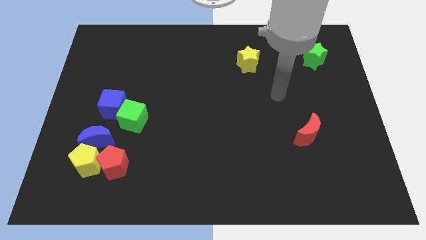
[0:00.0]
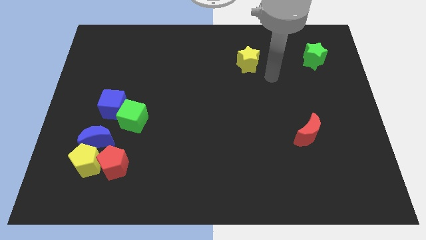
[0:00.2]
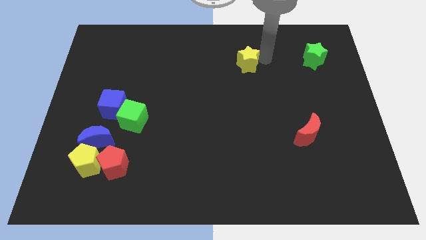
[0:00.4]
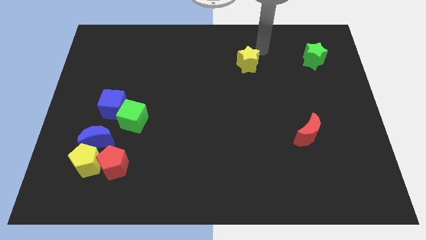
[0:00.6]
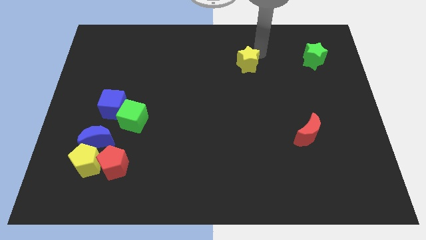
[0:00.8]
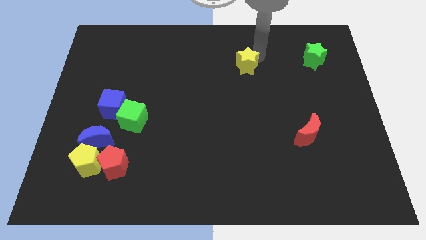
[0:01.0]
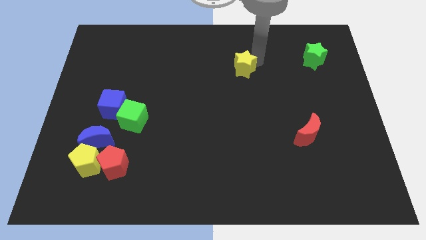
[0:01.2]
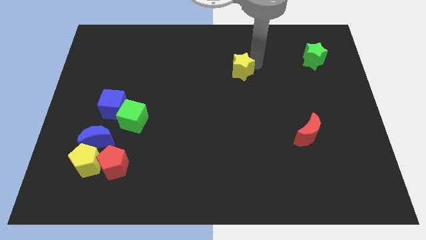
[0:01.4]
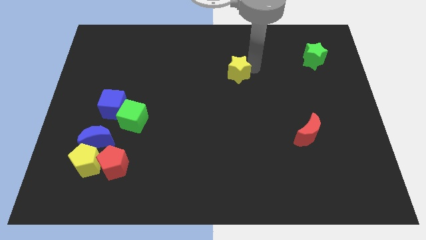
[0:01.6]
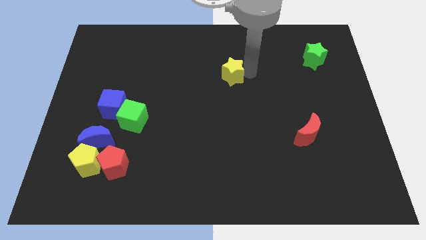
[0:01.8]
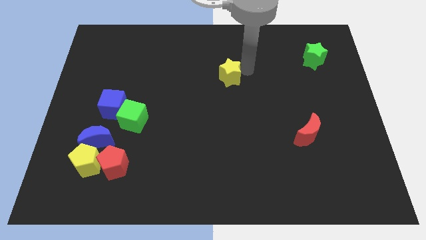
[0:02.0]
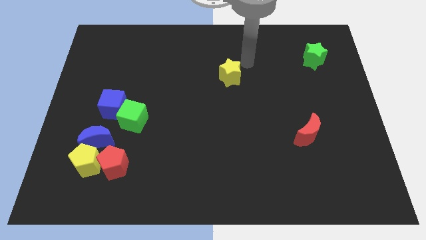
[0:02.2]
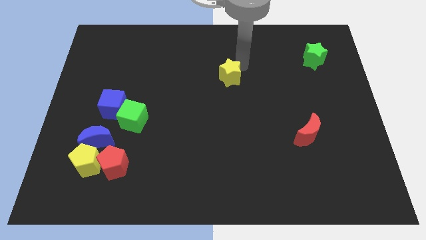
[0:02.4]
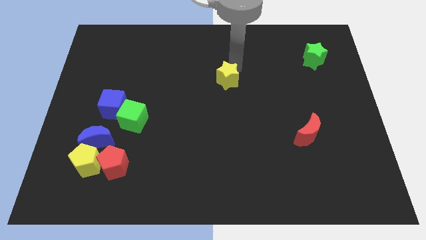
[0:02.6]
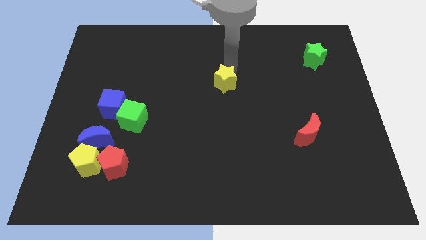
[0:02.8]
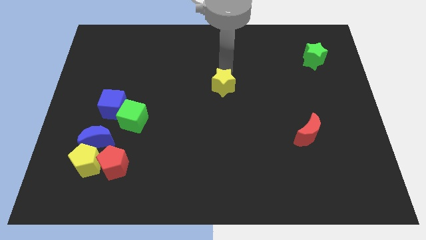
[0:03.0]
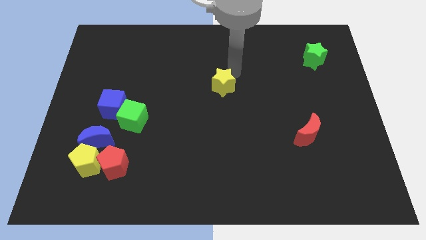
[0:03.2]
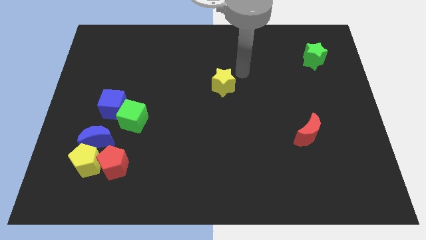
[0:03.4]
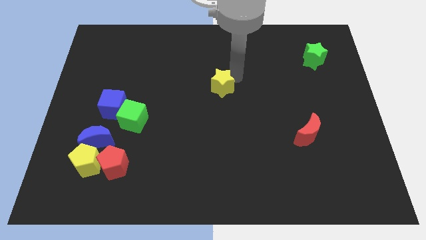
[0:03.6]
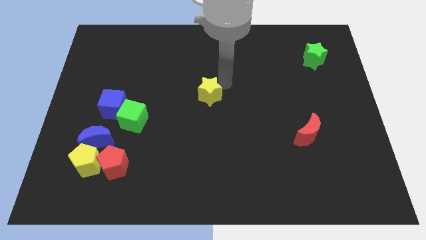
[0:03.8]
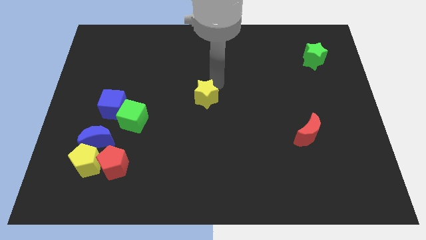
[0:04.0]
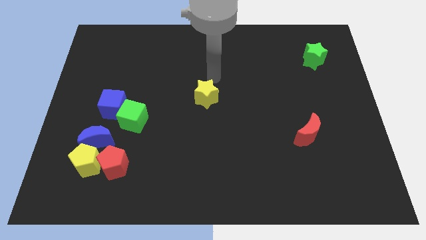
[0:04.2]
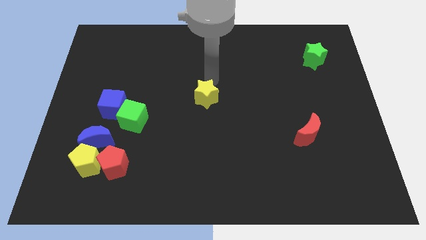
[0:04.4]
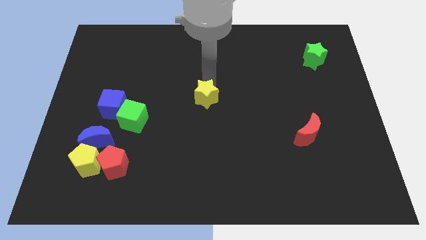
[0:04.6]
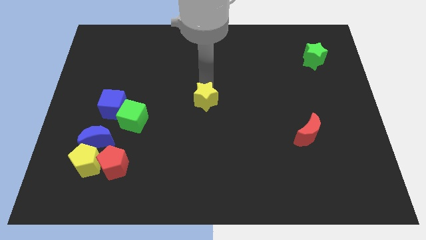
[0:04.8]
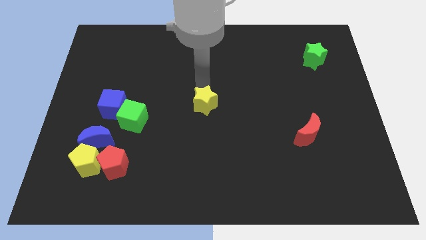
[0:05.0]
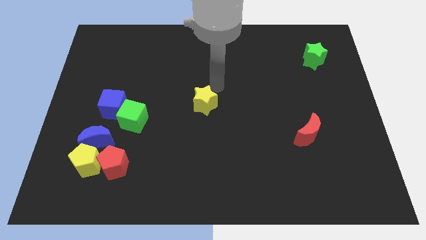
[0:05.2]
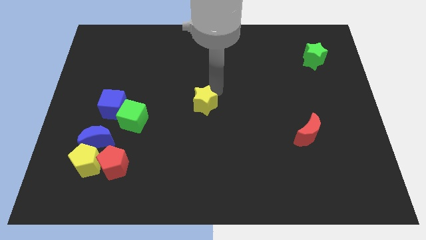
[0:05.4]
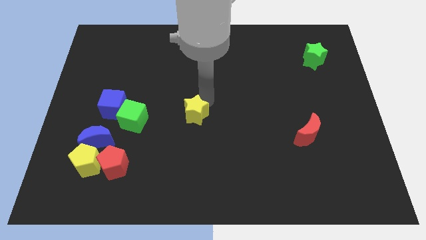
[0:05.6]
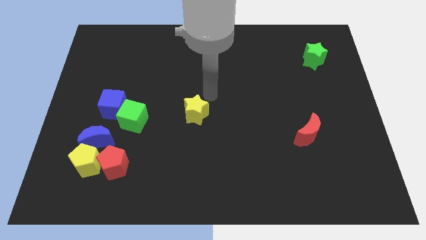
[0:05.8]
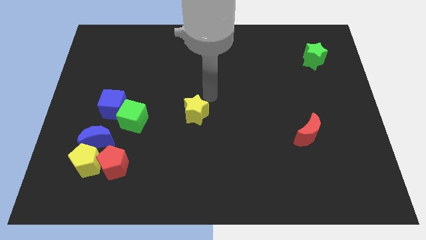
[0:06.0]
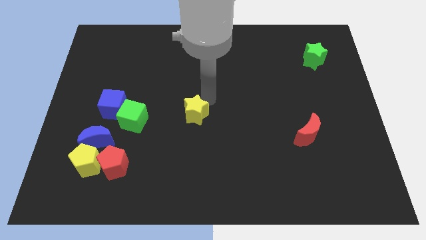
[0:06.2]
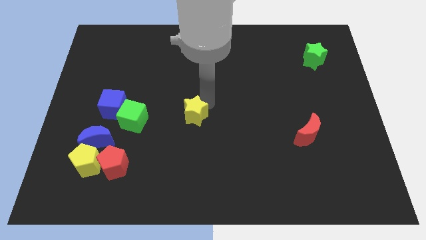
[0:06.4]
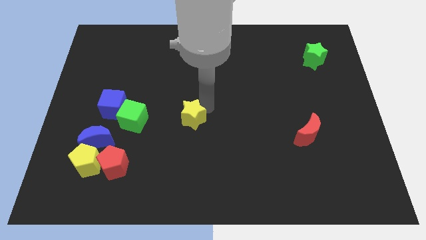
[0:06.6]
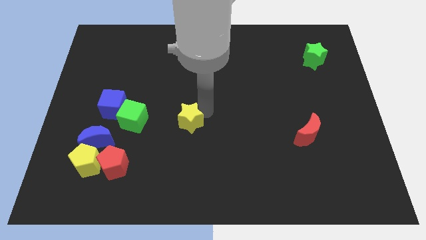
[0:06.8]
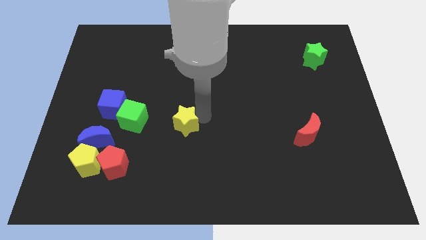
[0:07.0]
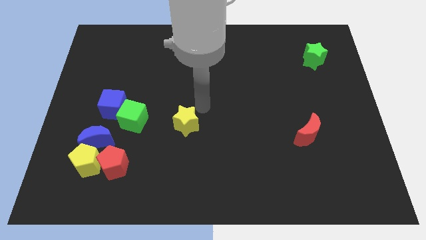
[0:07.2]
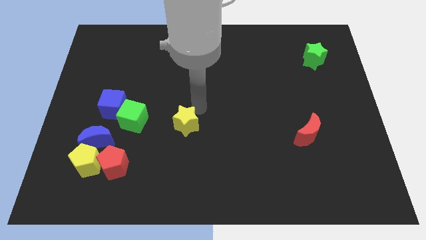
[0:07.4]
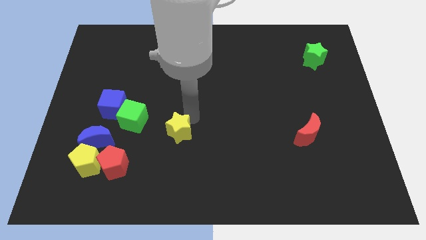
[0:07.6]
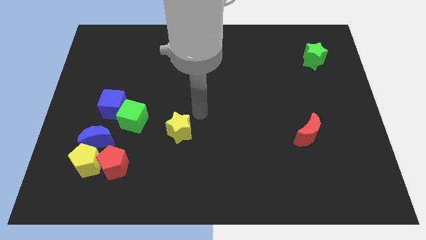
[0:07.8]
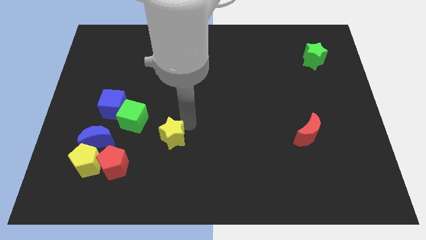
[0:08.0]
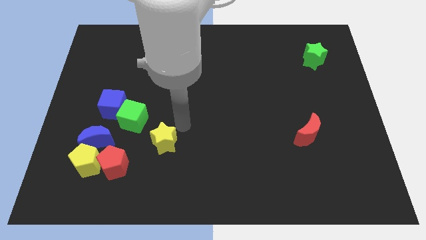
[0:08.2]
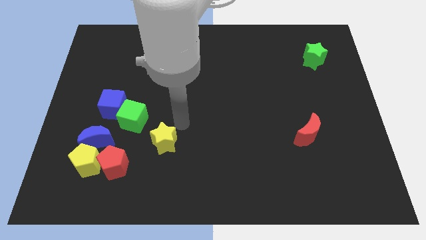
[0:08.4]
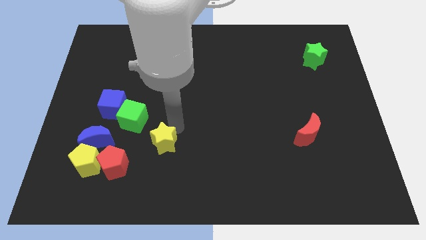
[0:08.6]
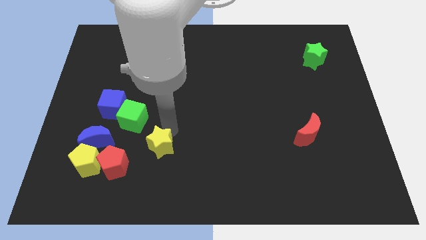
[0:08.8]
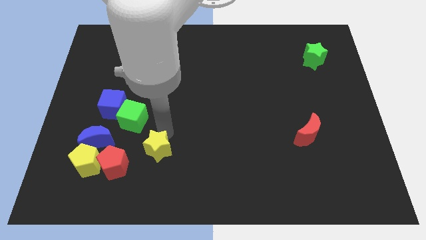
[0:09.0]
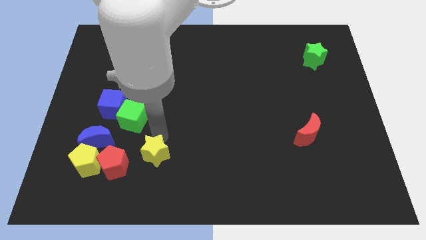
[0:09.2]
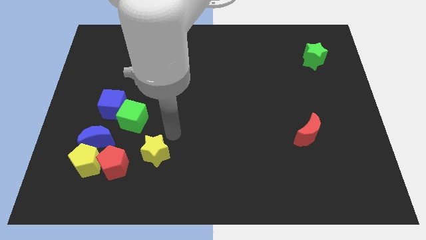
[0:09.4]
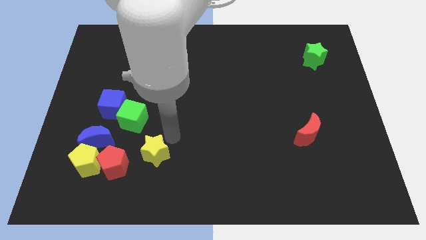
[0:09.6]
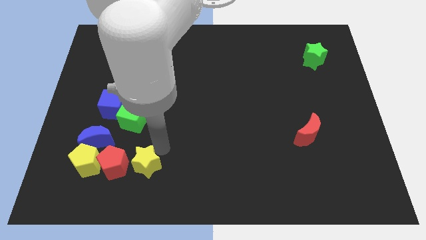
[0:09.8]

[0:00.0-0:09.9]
slide the yellow star to the bottom side of the green cube

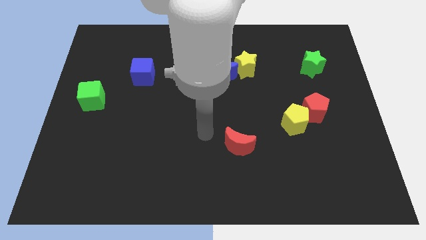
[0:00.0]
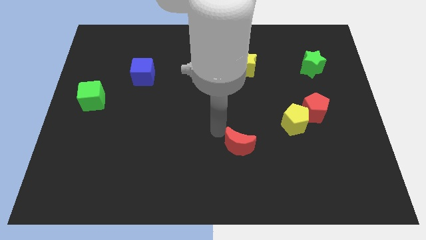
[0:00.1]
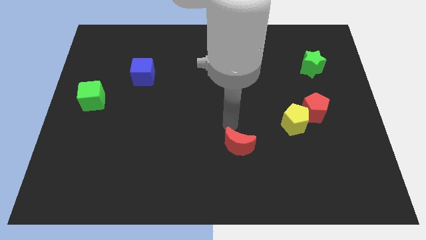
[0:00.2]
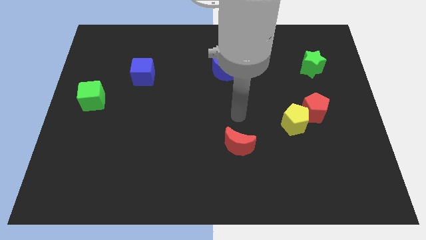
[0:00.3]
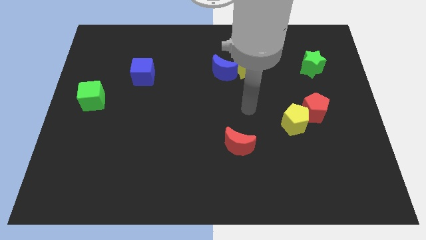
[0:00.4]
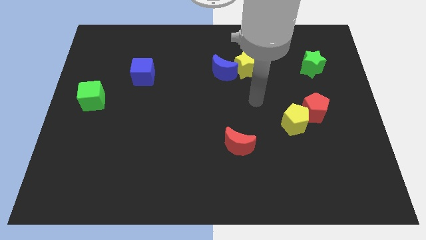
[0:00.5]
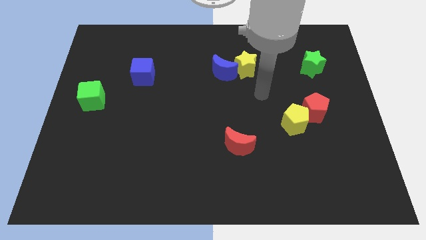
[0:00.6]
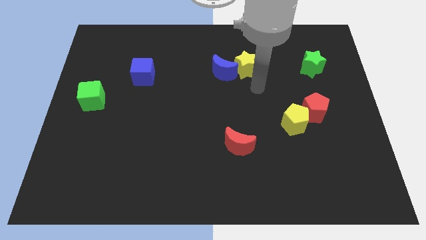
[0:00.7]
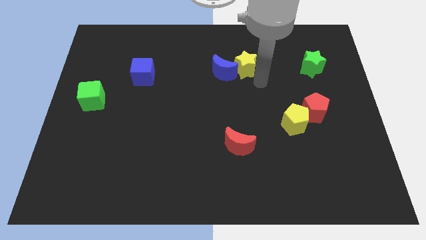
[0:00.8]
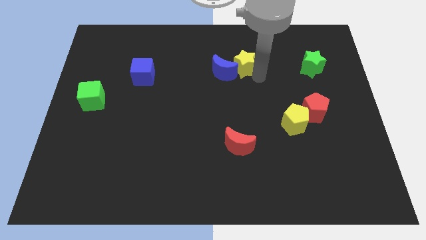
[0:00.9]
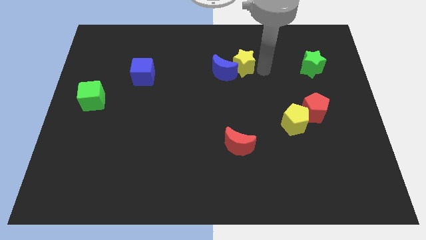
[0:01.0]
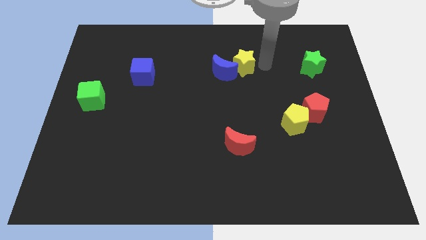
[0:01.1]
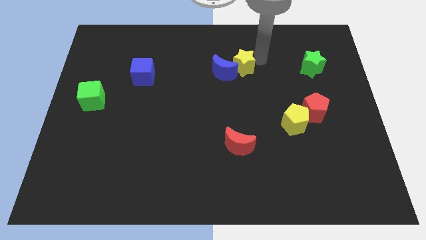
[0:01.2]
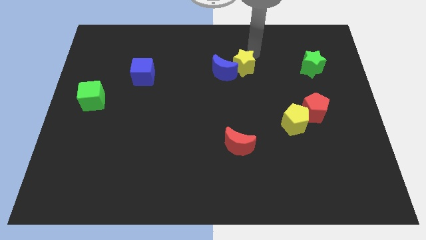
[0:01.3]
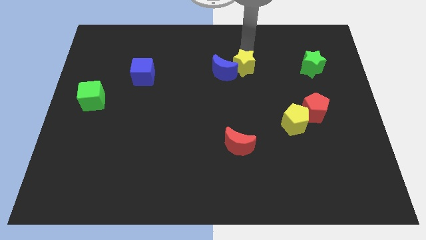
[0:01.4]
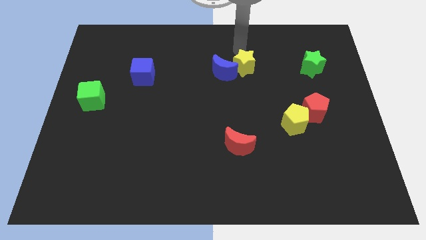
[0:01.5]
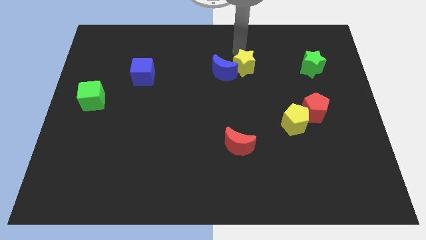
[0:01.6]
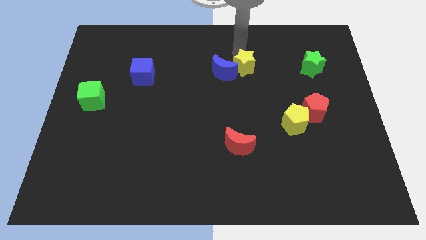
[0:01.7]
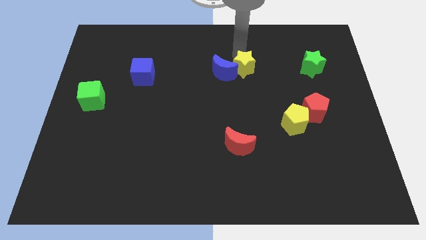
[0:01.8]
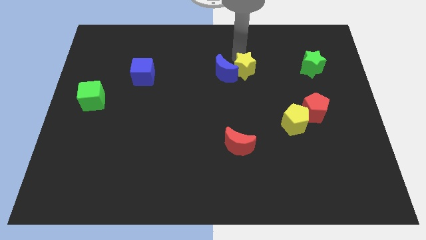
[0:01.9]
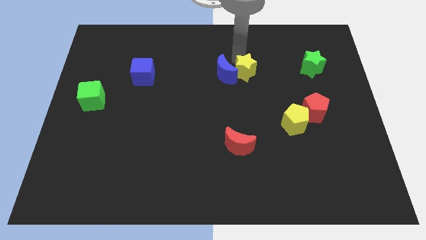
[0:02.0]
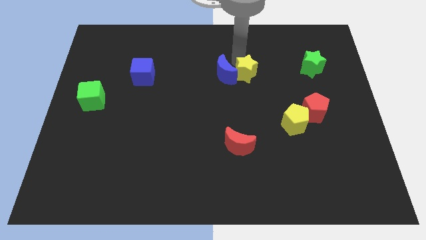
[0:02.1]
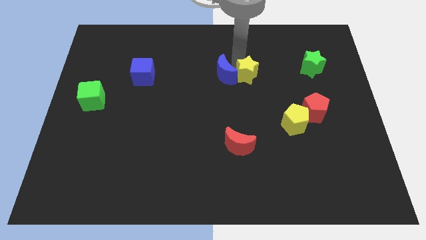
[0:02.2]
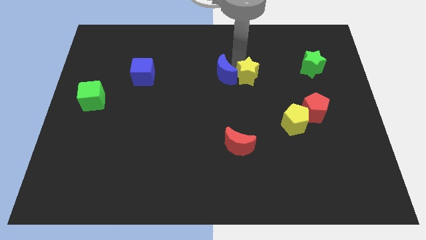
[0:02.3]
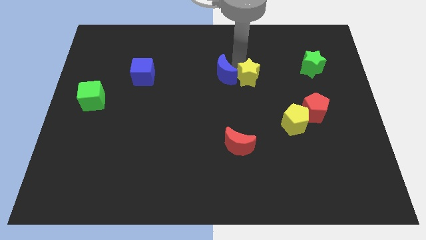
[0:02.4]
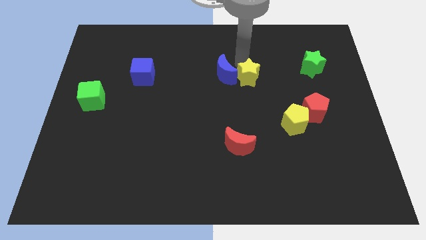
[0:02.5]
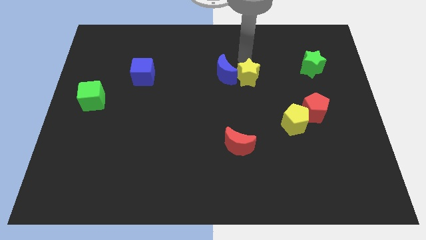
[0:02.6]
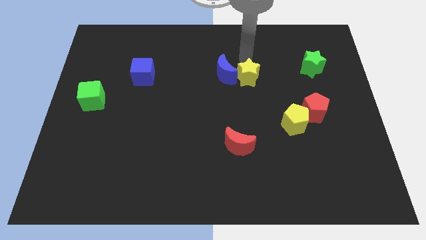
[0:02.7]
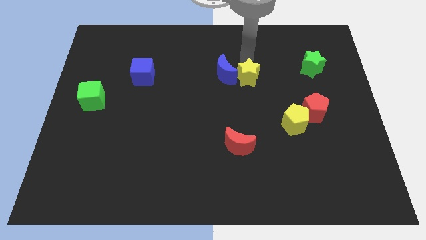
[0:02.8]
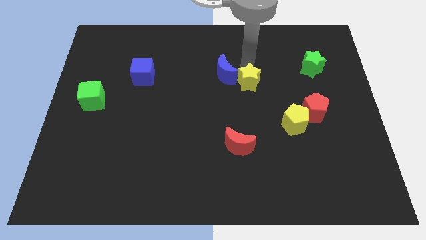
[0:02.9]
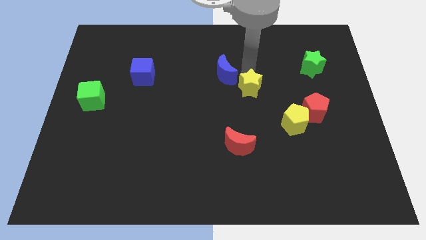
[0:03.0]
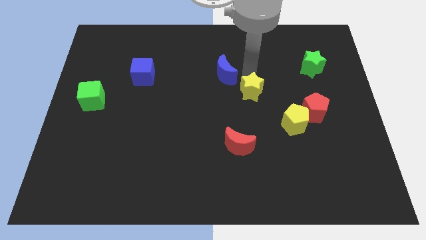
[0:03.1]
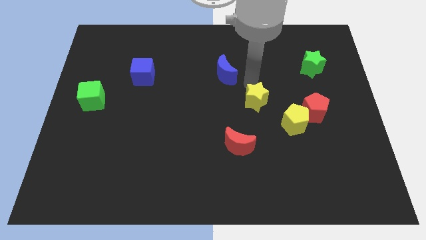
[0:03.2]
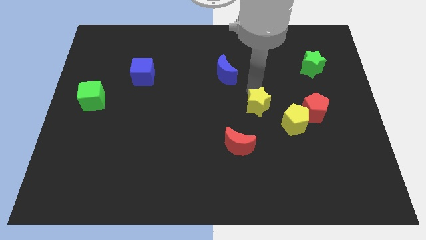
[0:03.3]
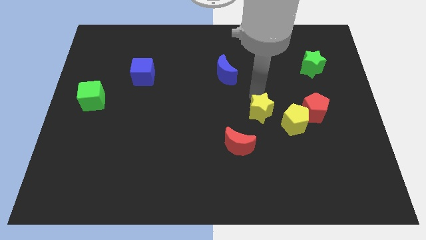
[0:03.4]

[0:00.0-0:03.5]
push the yellow star to the top right side of the red moon
